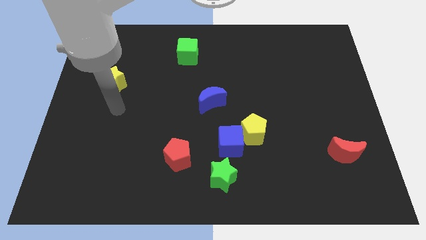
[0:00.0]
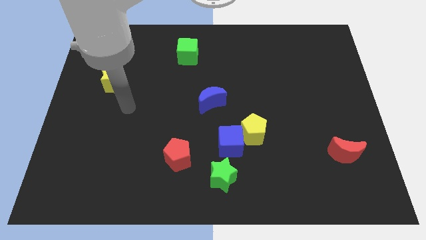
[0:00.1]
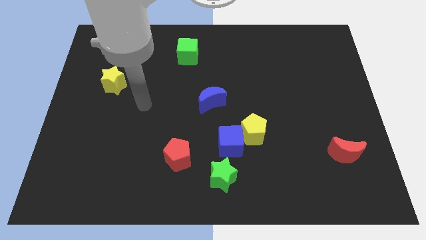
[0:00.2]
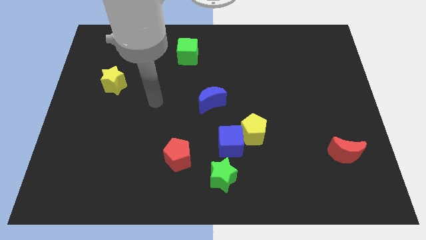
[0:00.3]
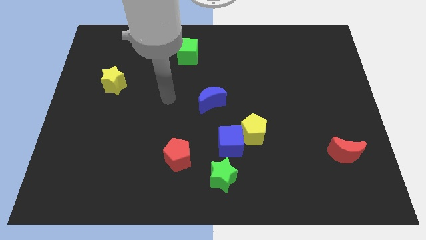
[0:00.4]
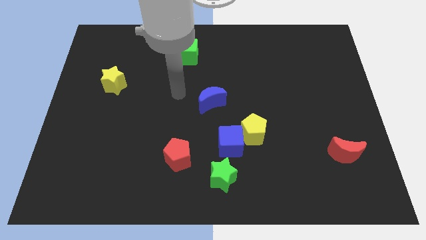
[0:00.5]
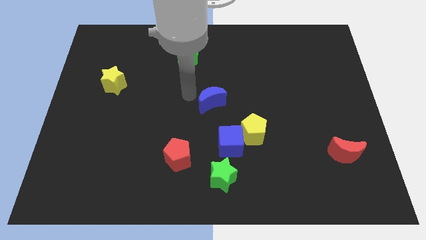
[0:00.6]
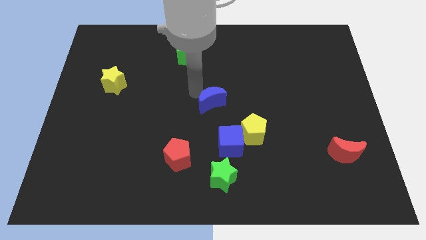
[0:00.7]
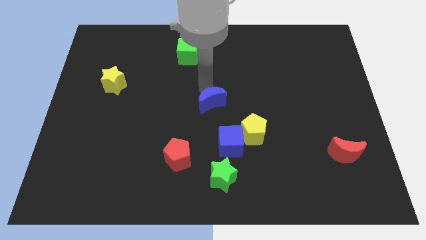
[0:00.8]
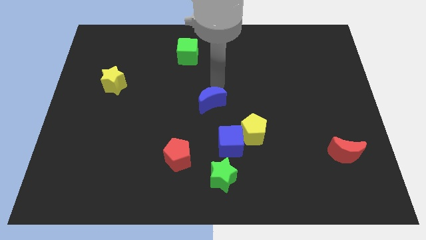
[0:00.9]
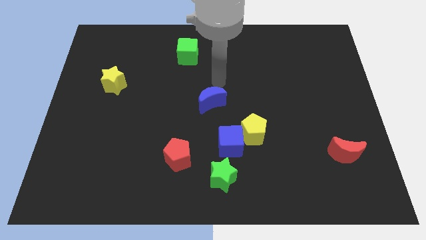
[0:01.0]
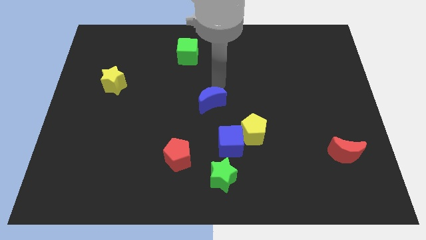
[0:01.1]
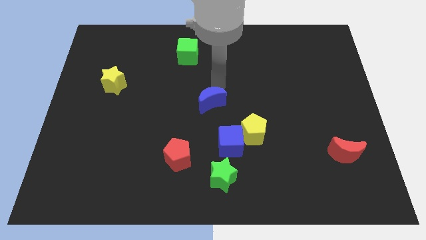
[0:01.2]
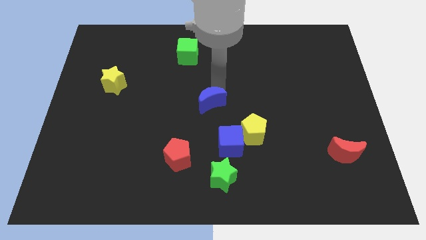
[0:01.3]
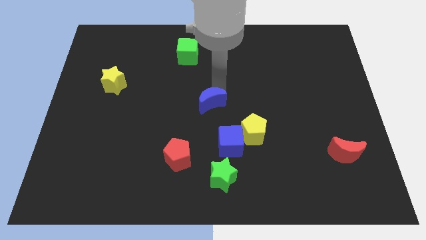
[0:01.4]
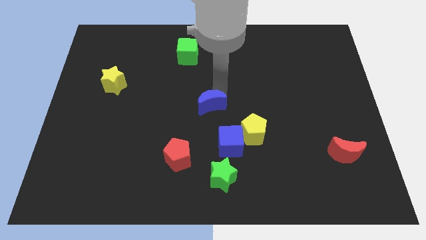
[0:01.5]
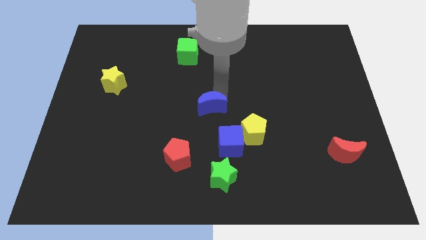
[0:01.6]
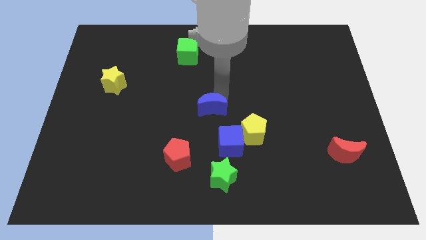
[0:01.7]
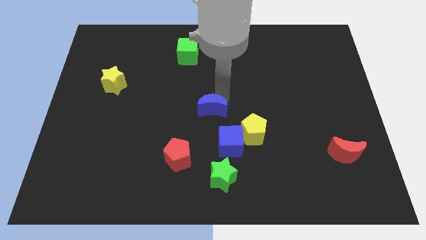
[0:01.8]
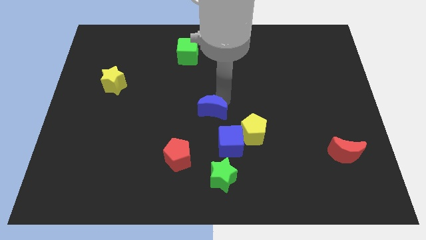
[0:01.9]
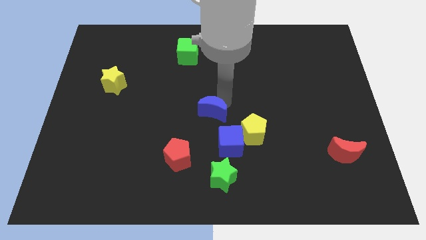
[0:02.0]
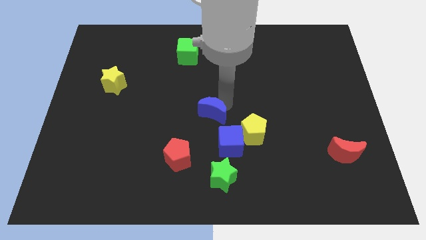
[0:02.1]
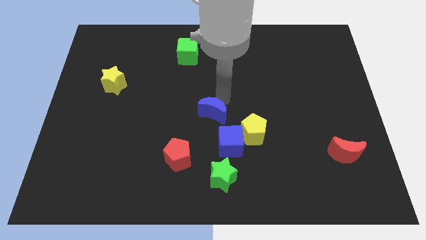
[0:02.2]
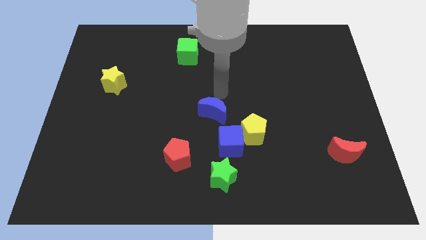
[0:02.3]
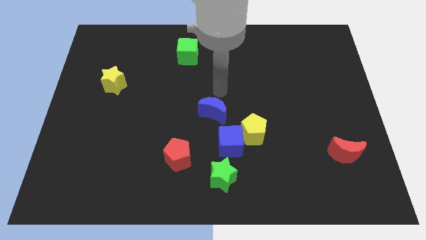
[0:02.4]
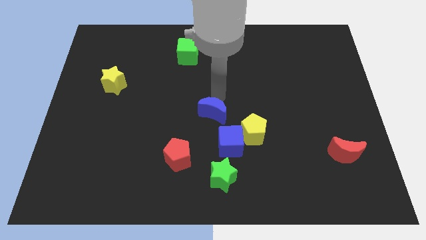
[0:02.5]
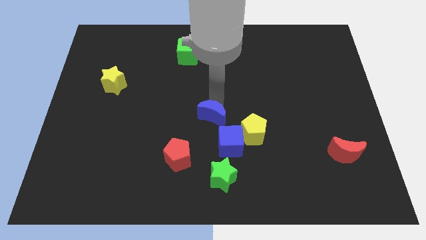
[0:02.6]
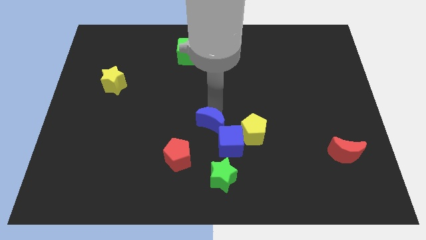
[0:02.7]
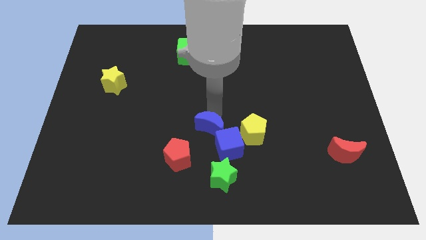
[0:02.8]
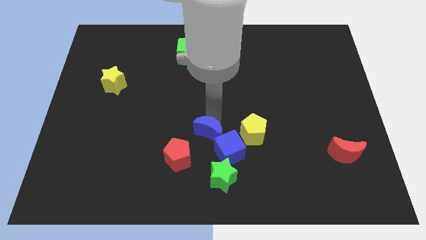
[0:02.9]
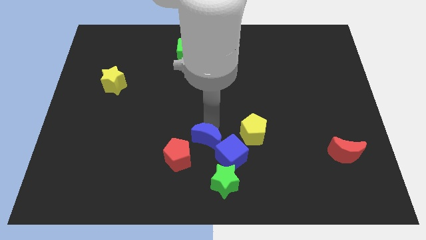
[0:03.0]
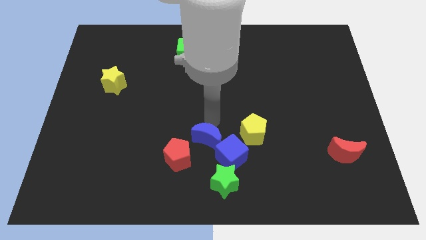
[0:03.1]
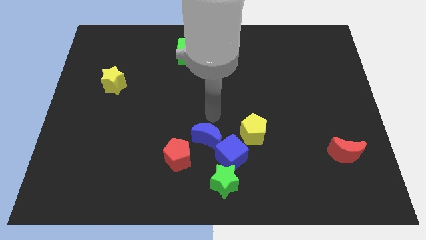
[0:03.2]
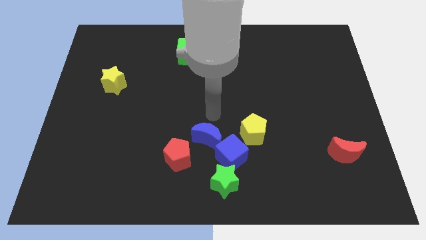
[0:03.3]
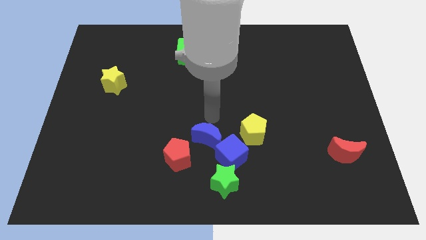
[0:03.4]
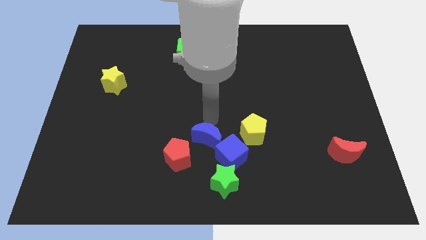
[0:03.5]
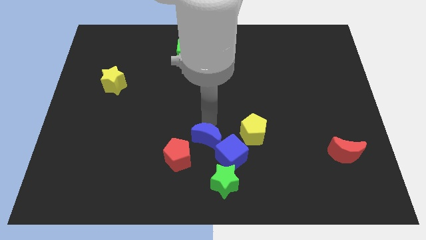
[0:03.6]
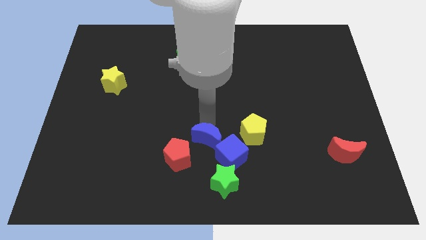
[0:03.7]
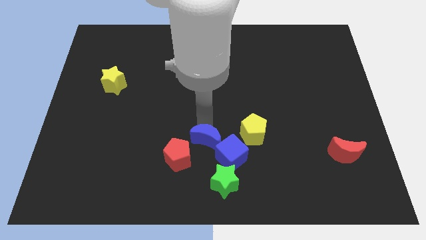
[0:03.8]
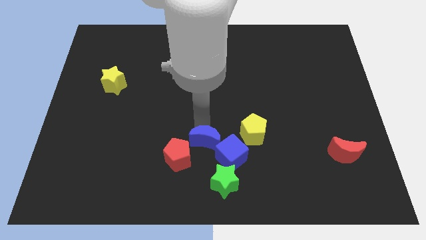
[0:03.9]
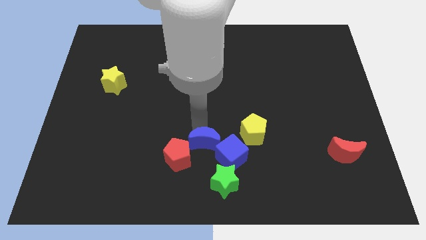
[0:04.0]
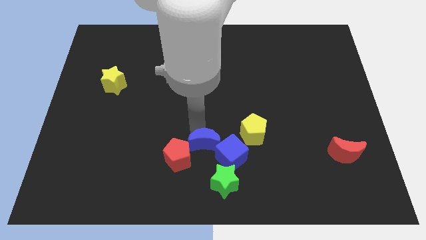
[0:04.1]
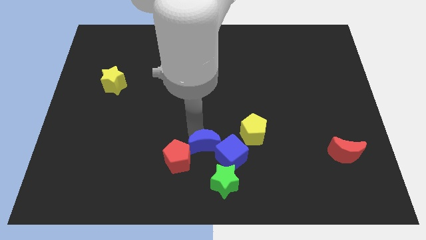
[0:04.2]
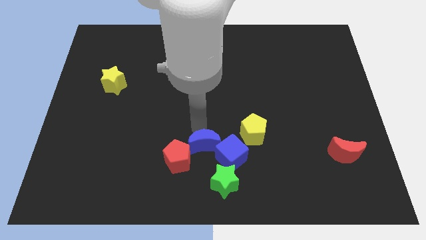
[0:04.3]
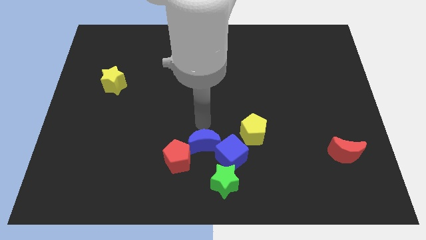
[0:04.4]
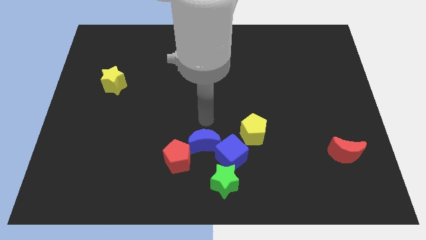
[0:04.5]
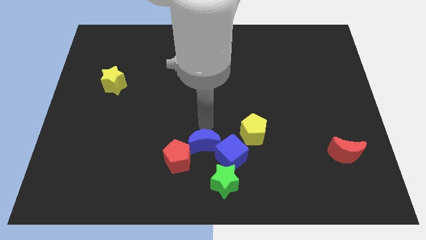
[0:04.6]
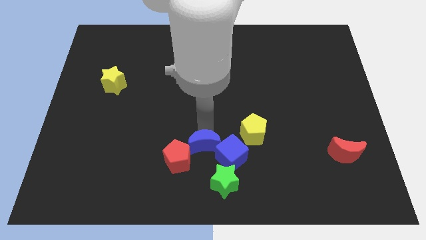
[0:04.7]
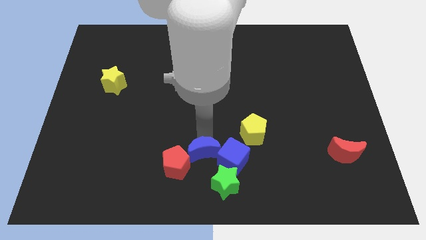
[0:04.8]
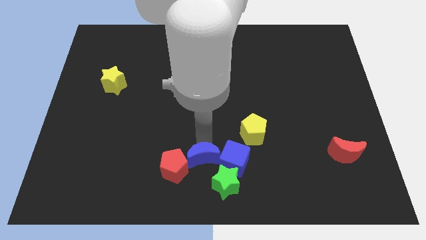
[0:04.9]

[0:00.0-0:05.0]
move the blue moon to the bottom side
